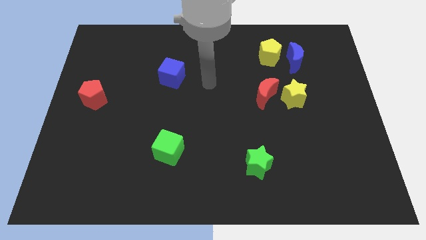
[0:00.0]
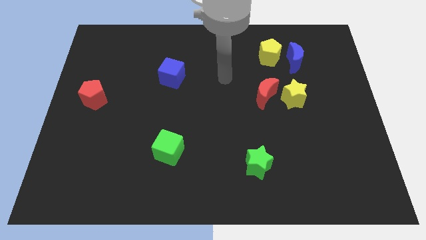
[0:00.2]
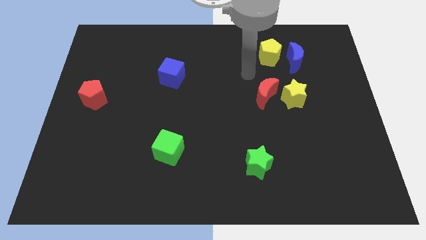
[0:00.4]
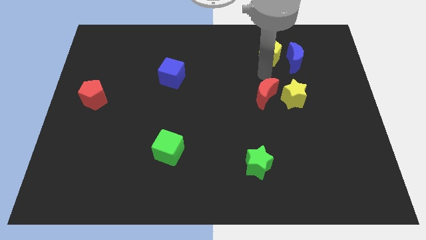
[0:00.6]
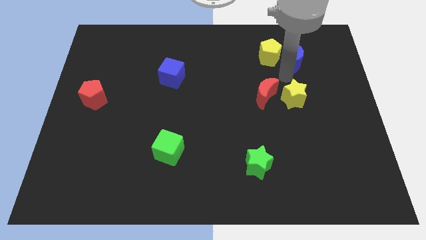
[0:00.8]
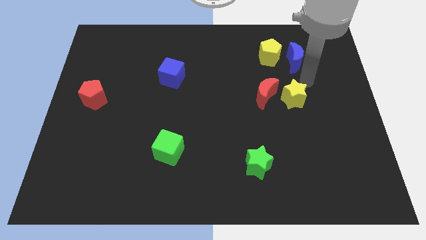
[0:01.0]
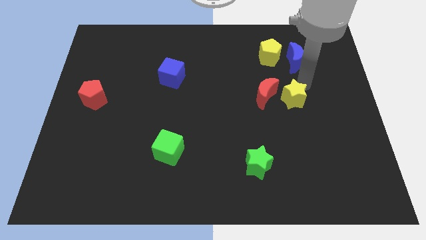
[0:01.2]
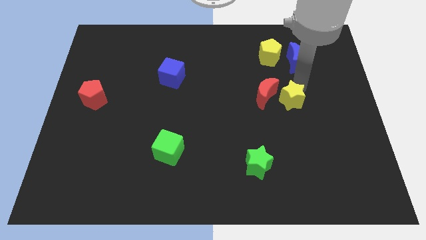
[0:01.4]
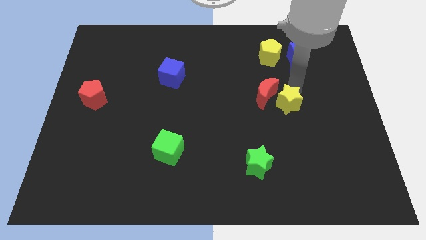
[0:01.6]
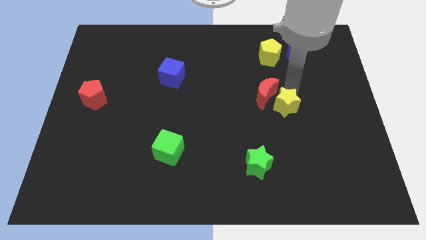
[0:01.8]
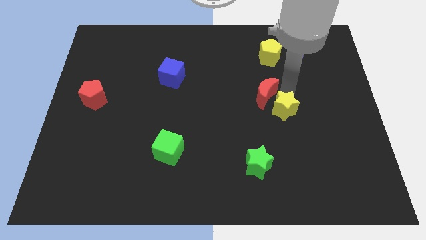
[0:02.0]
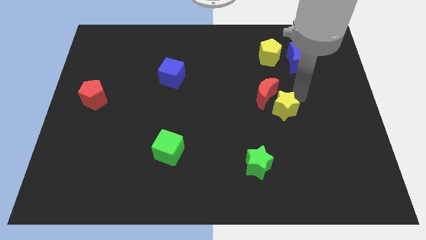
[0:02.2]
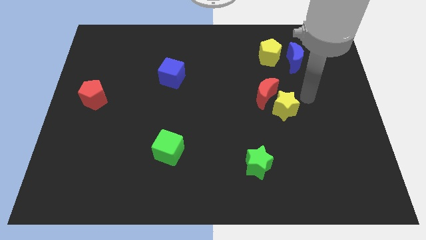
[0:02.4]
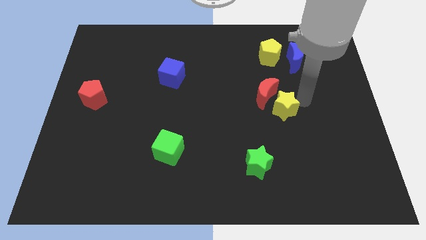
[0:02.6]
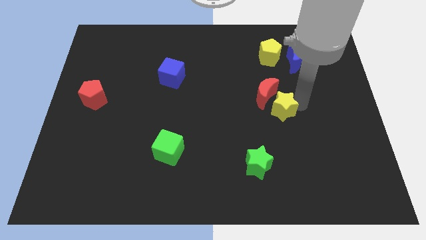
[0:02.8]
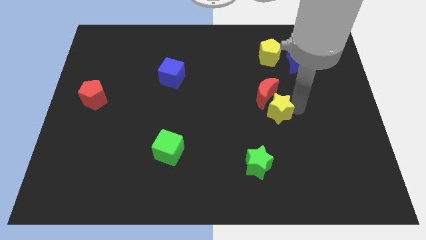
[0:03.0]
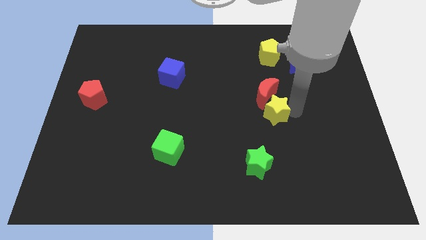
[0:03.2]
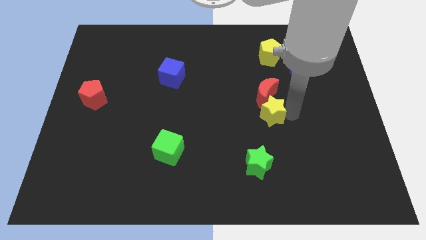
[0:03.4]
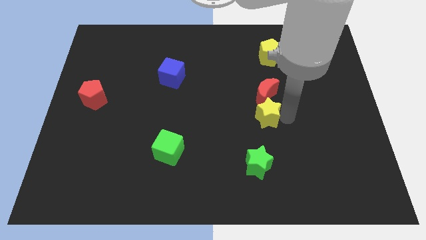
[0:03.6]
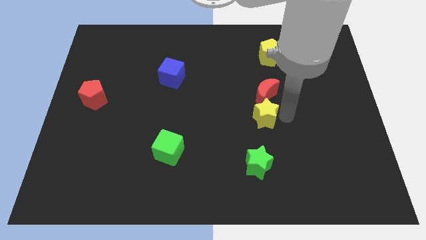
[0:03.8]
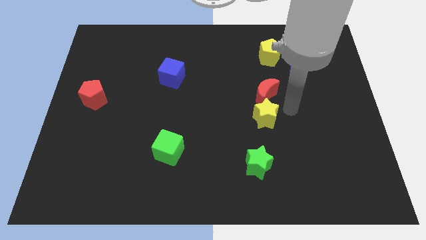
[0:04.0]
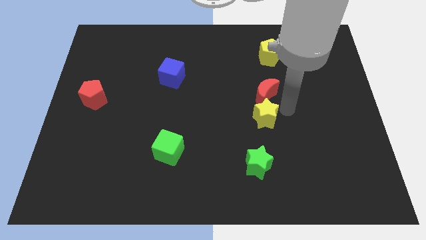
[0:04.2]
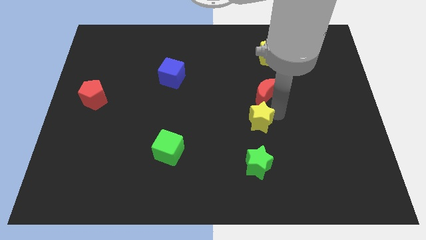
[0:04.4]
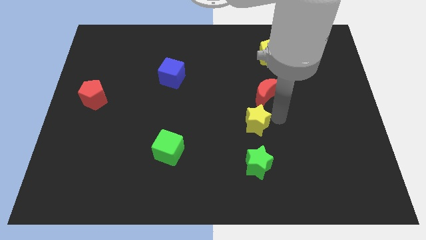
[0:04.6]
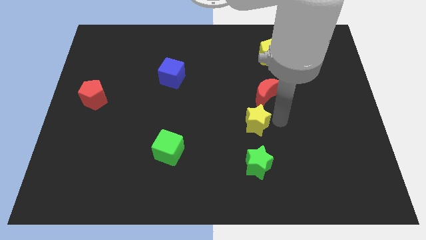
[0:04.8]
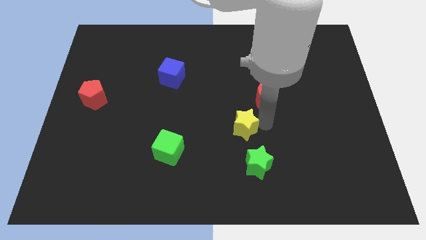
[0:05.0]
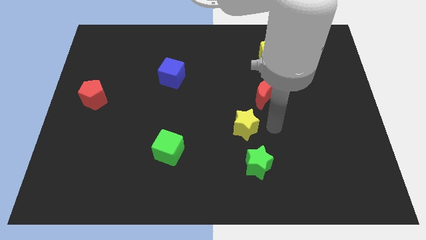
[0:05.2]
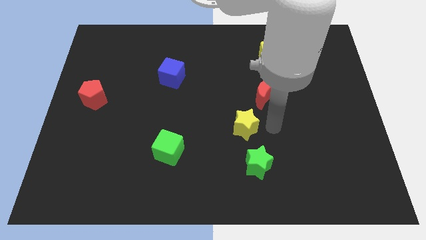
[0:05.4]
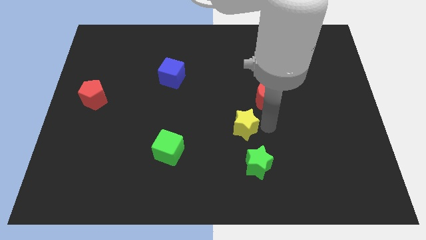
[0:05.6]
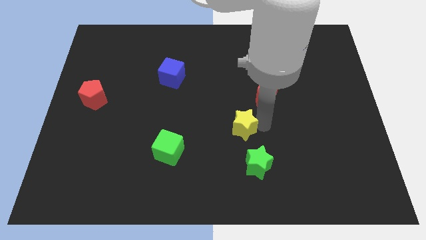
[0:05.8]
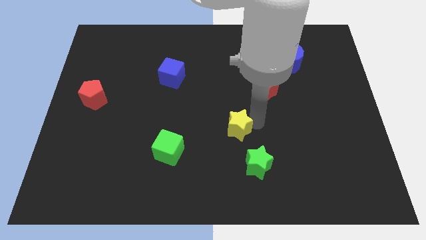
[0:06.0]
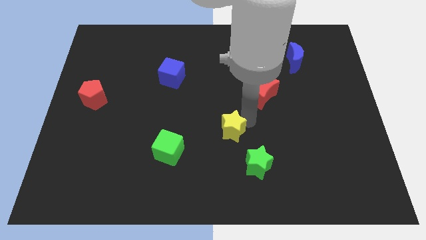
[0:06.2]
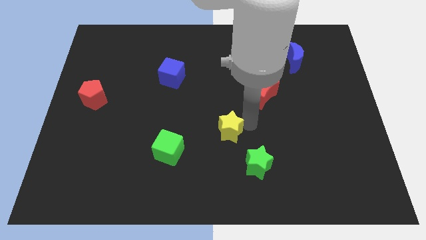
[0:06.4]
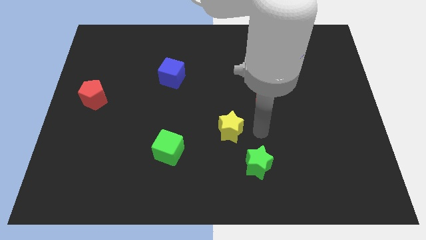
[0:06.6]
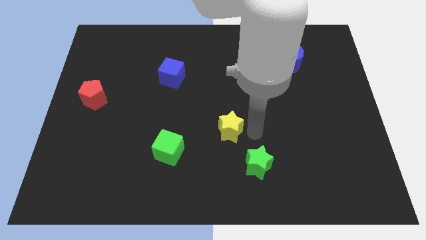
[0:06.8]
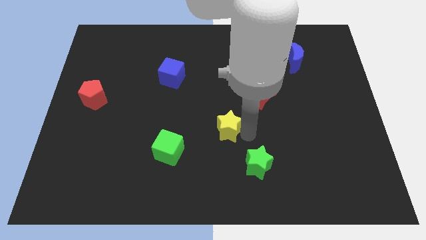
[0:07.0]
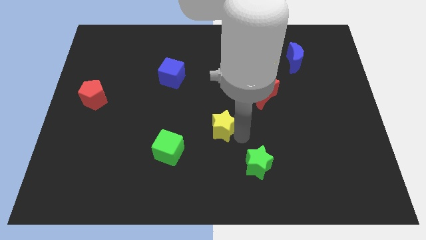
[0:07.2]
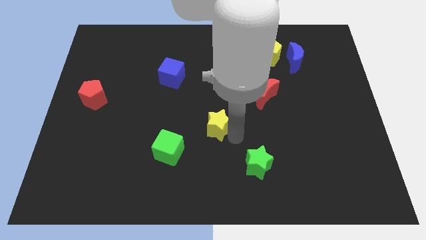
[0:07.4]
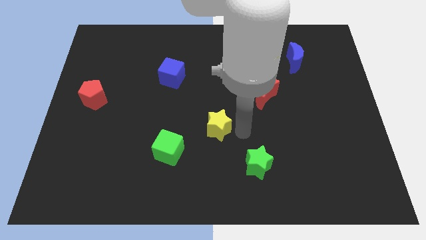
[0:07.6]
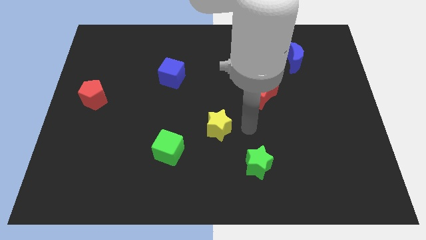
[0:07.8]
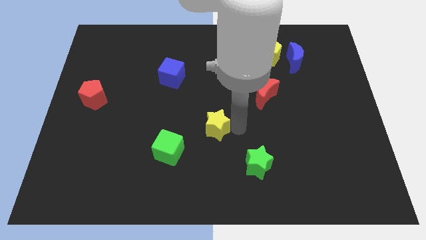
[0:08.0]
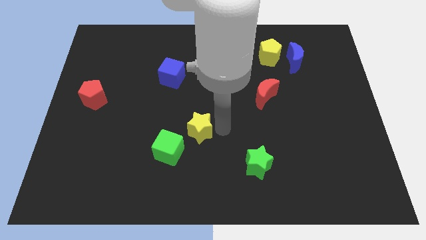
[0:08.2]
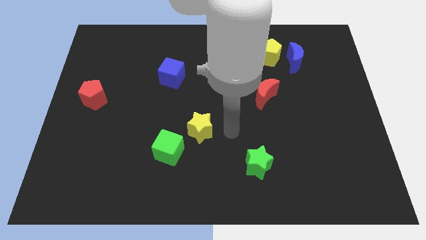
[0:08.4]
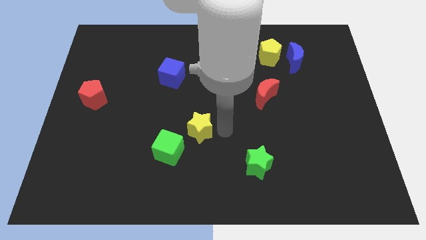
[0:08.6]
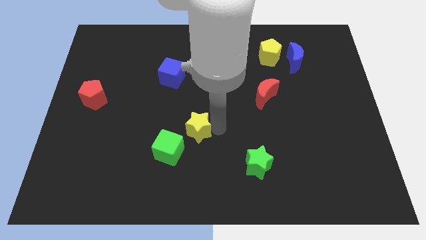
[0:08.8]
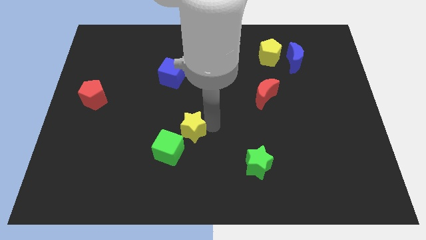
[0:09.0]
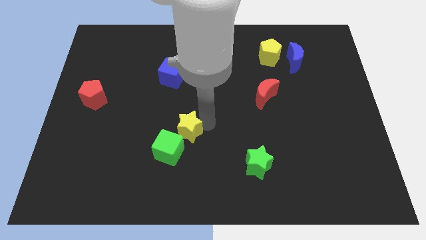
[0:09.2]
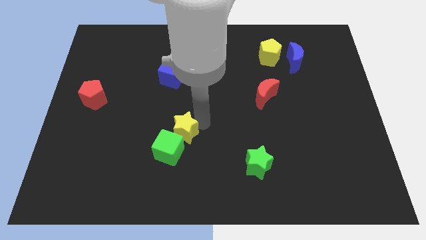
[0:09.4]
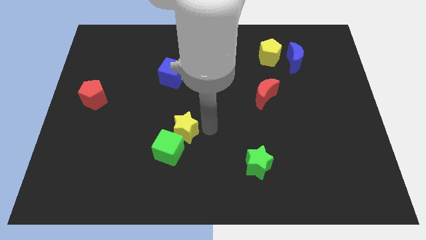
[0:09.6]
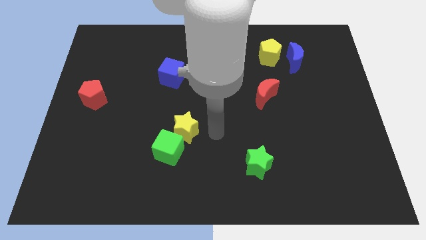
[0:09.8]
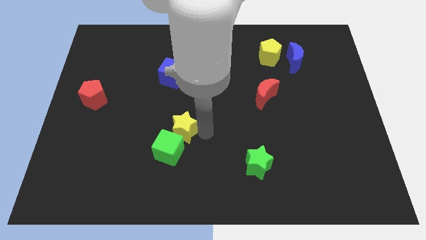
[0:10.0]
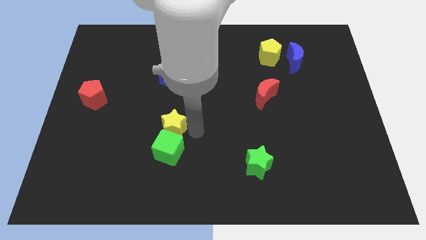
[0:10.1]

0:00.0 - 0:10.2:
slide the yellow star to the top left side of the green cube

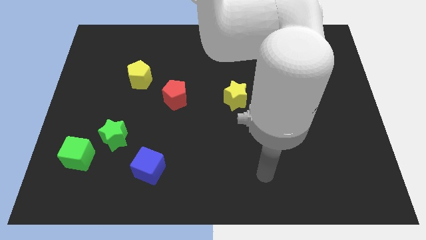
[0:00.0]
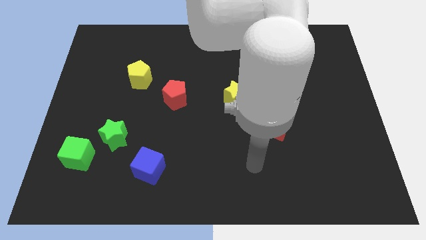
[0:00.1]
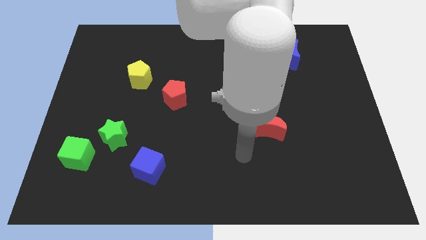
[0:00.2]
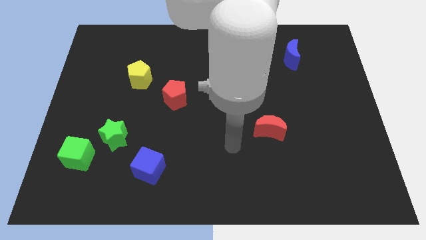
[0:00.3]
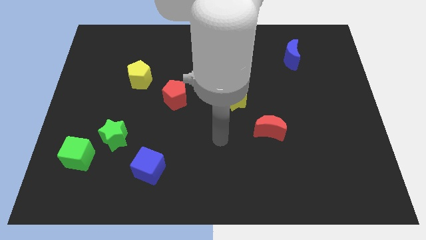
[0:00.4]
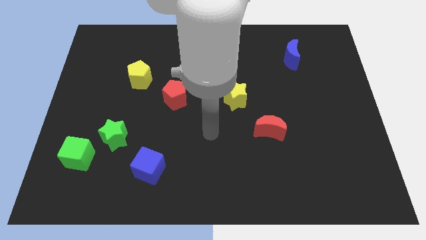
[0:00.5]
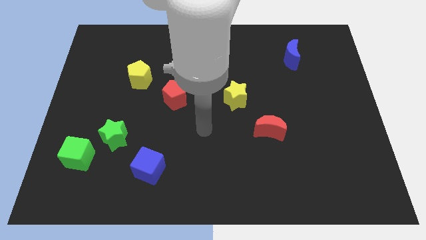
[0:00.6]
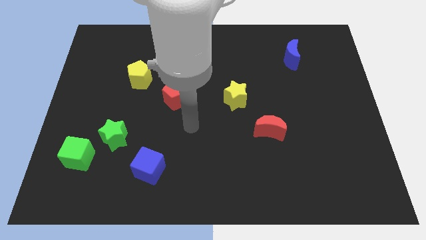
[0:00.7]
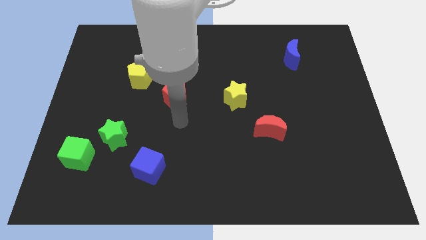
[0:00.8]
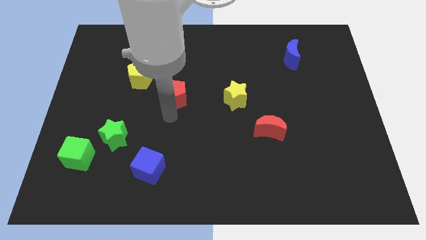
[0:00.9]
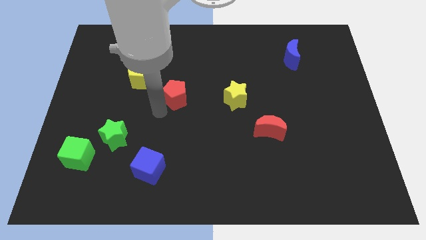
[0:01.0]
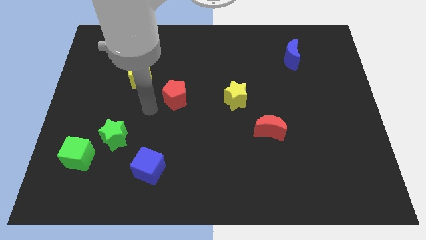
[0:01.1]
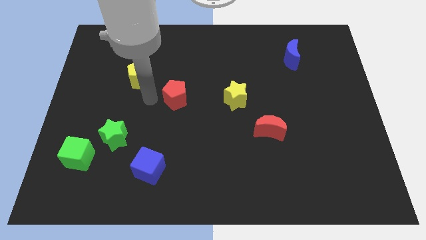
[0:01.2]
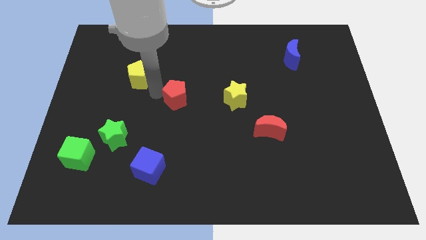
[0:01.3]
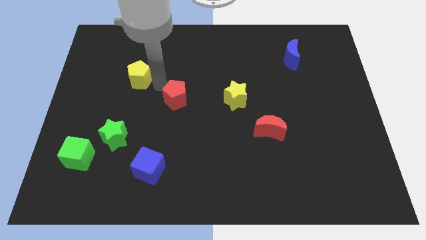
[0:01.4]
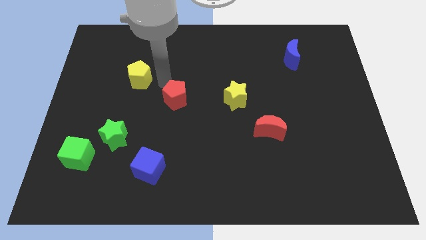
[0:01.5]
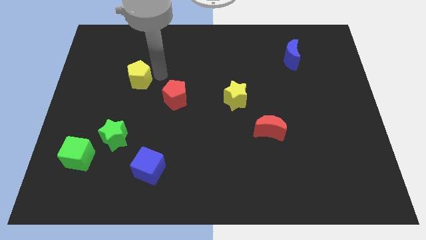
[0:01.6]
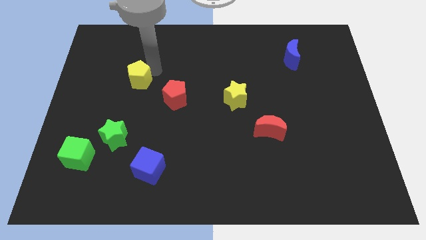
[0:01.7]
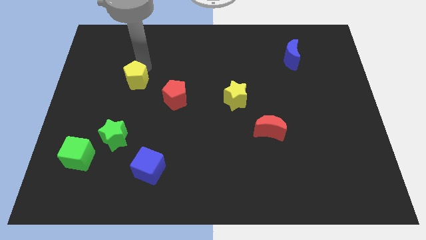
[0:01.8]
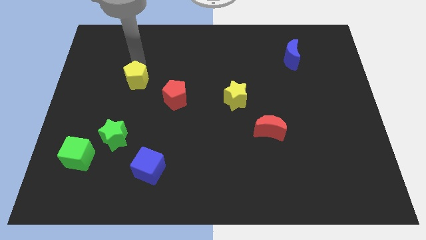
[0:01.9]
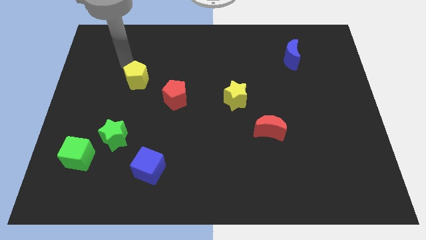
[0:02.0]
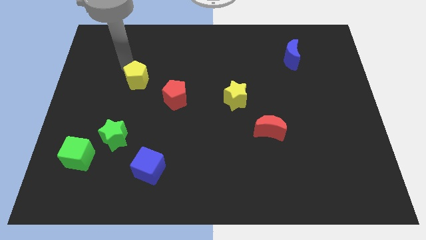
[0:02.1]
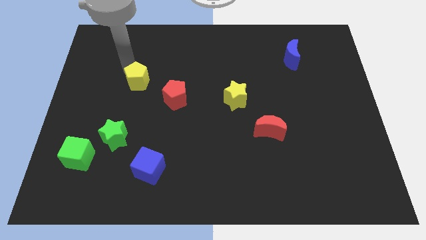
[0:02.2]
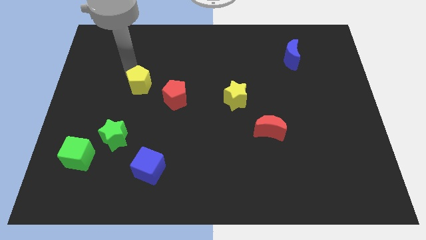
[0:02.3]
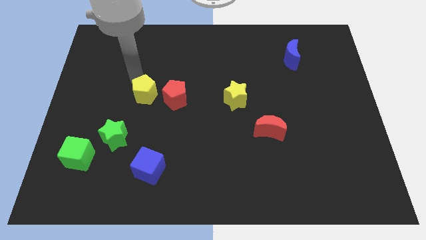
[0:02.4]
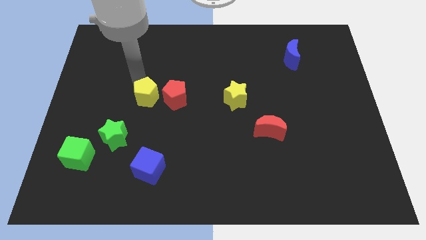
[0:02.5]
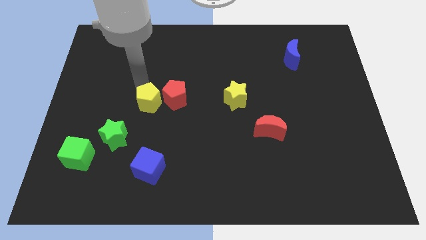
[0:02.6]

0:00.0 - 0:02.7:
slide the yellow pentagon to the bottom left side of the red pentagon
